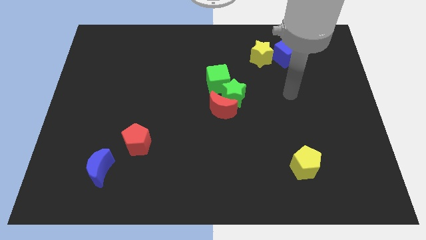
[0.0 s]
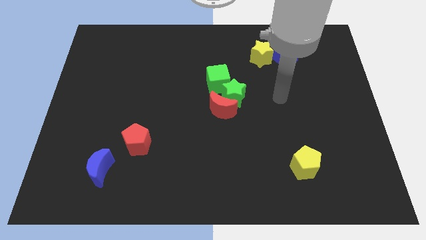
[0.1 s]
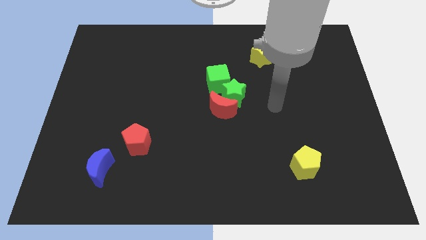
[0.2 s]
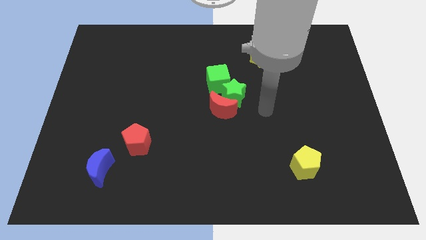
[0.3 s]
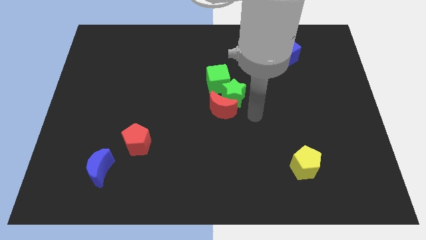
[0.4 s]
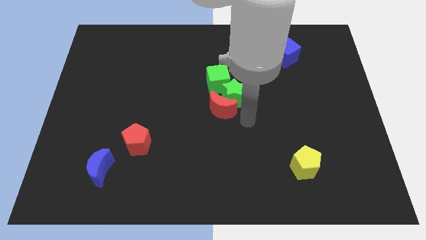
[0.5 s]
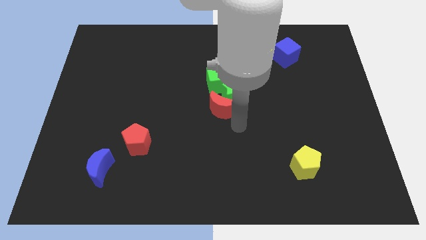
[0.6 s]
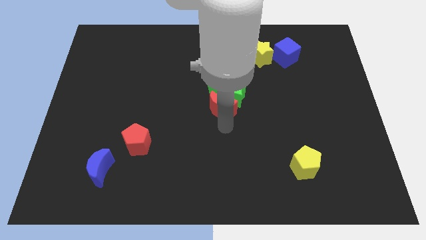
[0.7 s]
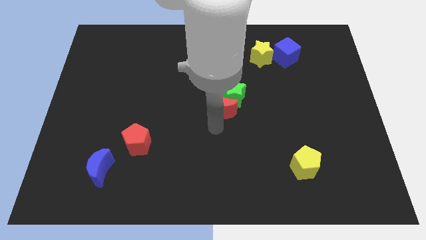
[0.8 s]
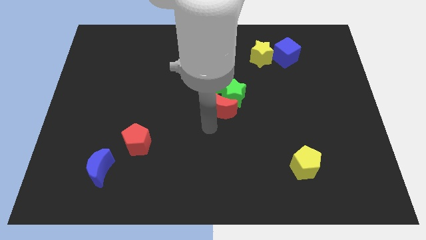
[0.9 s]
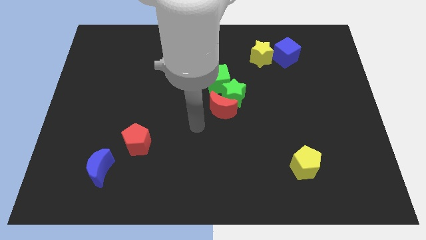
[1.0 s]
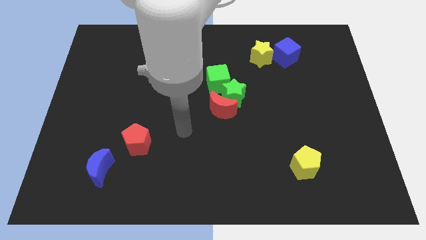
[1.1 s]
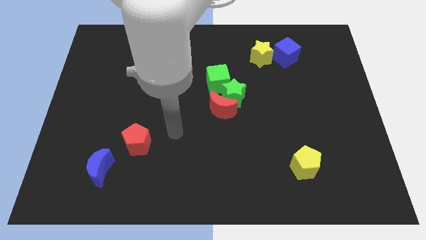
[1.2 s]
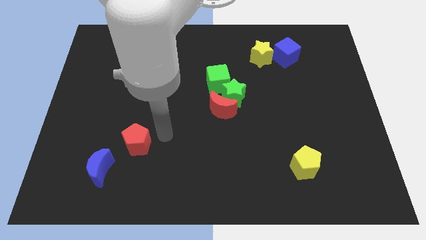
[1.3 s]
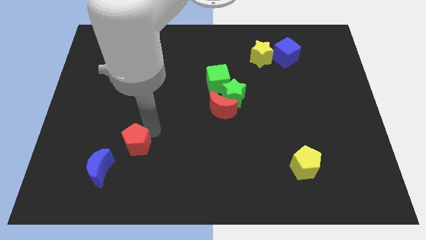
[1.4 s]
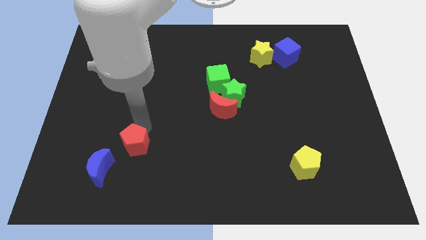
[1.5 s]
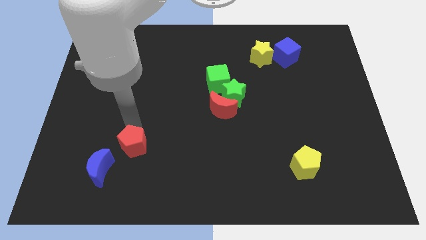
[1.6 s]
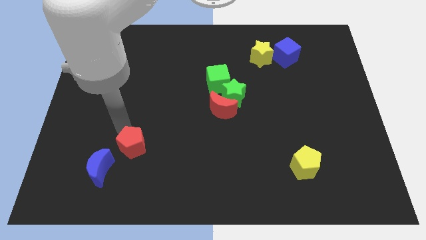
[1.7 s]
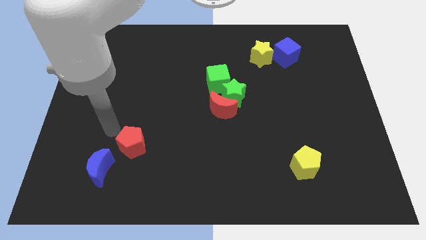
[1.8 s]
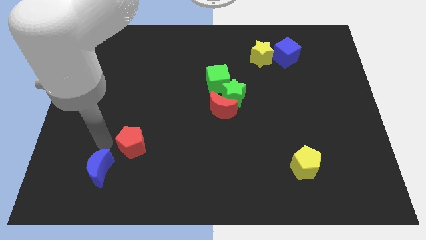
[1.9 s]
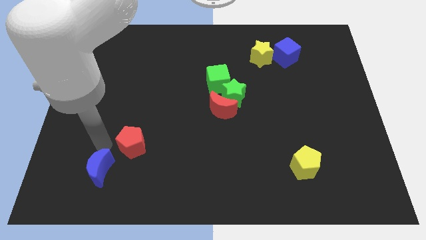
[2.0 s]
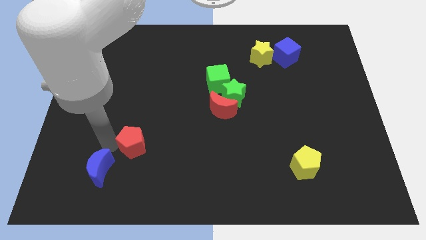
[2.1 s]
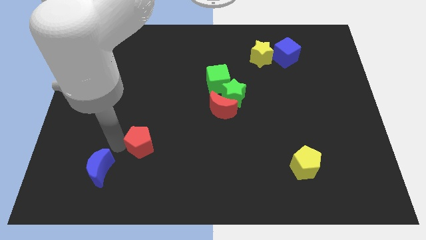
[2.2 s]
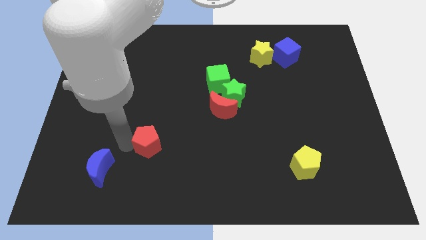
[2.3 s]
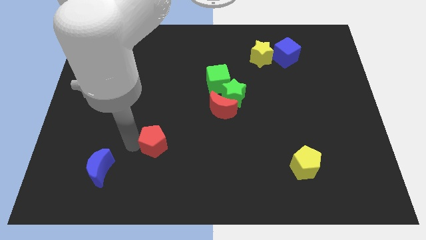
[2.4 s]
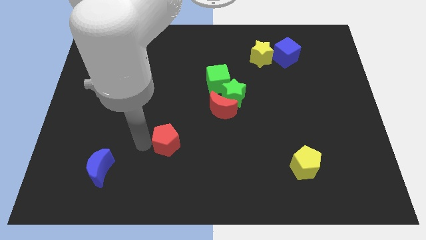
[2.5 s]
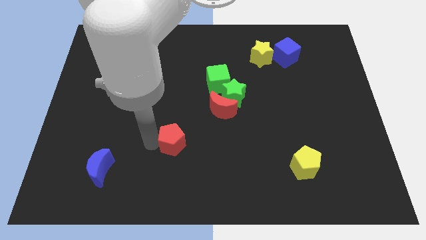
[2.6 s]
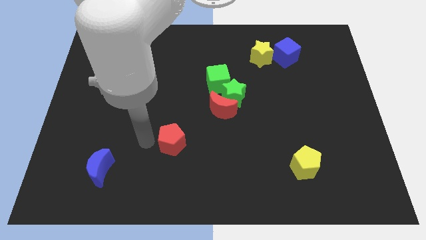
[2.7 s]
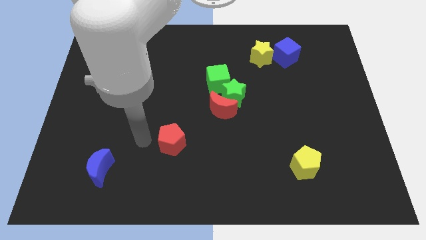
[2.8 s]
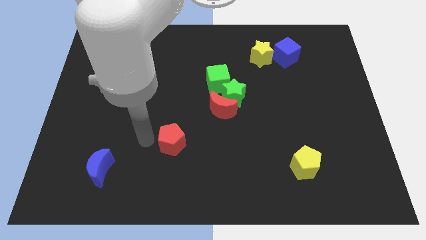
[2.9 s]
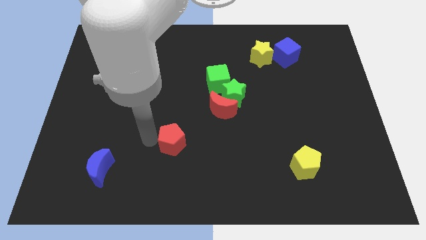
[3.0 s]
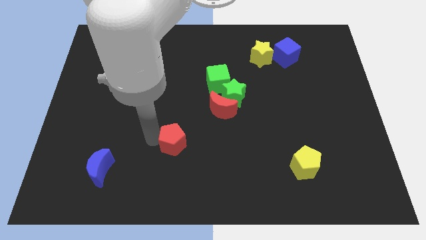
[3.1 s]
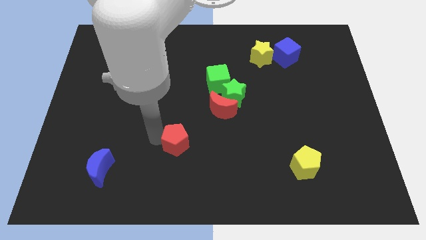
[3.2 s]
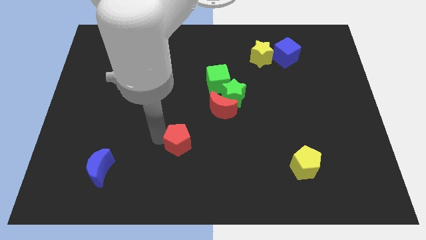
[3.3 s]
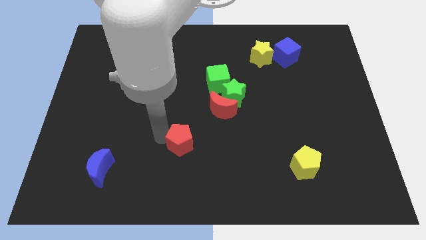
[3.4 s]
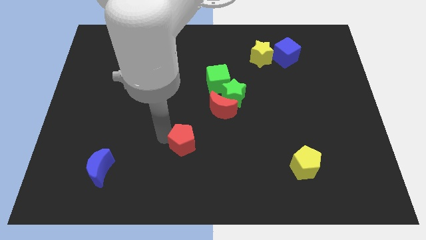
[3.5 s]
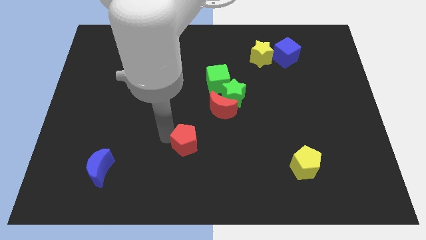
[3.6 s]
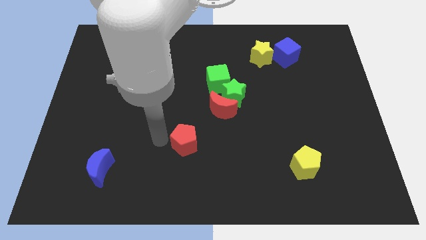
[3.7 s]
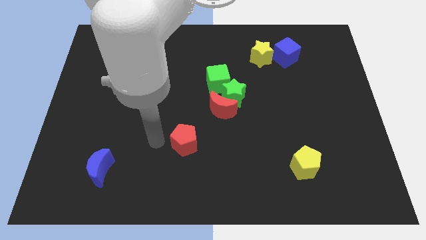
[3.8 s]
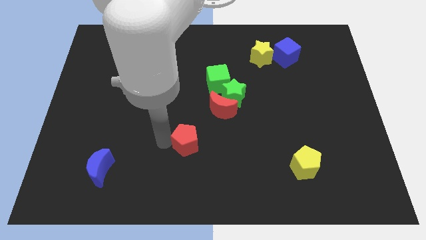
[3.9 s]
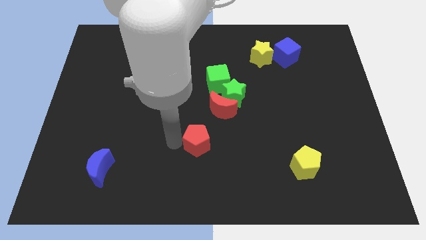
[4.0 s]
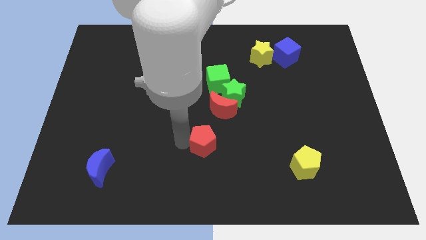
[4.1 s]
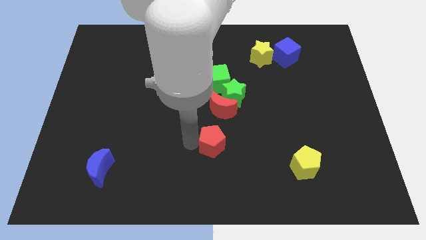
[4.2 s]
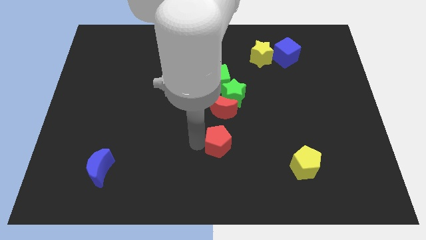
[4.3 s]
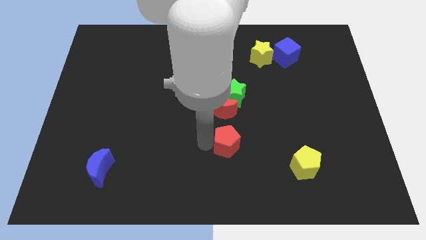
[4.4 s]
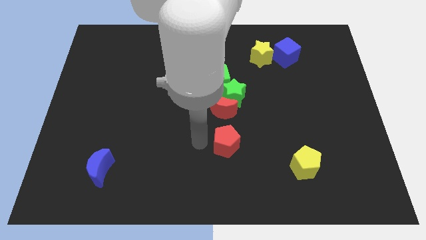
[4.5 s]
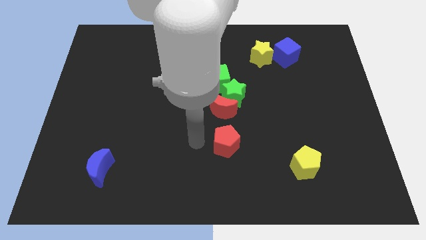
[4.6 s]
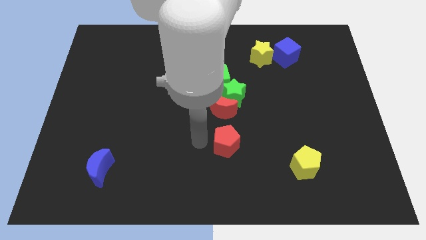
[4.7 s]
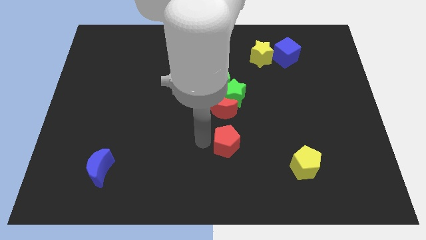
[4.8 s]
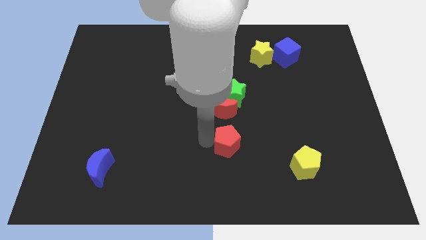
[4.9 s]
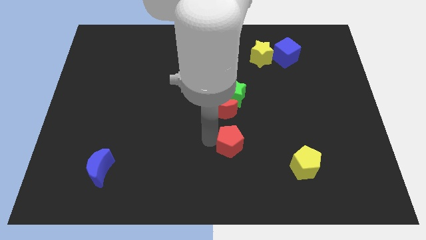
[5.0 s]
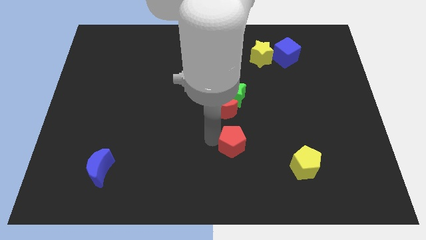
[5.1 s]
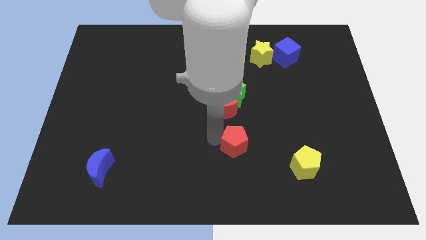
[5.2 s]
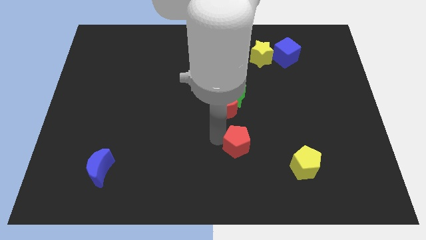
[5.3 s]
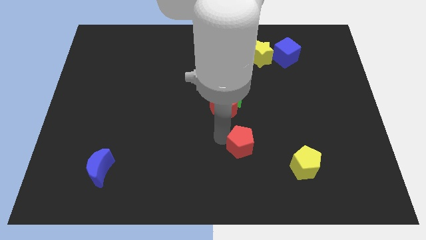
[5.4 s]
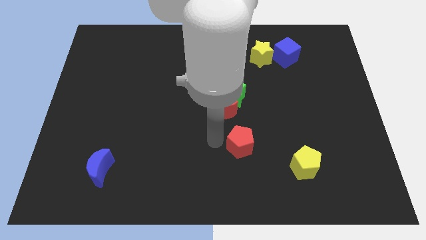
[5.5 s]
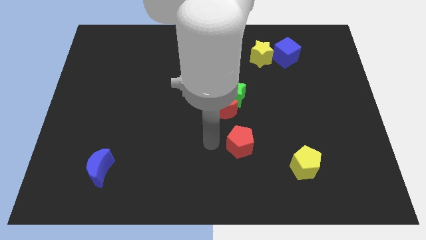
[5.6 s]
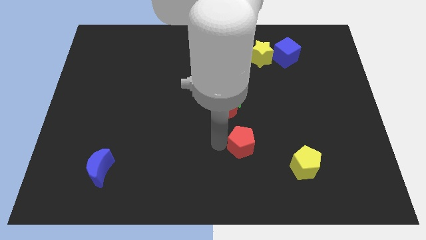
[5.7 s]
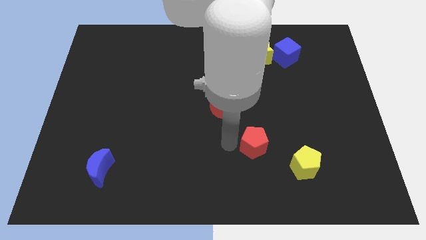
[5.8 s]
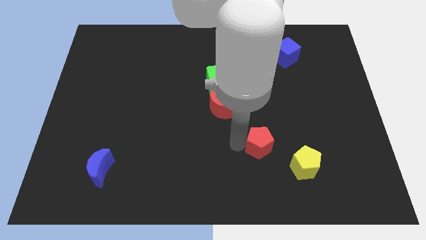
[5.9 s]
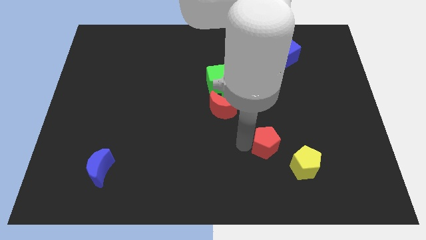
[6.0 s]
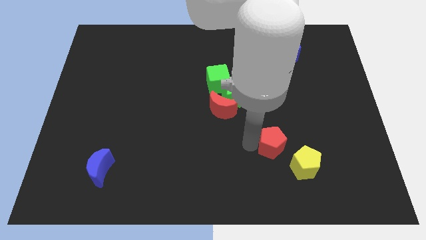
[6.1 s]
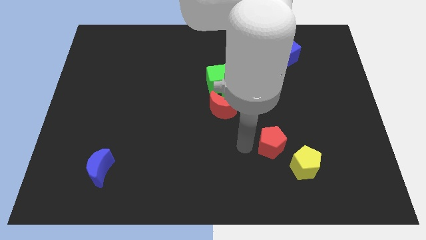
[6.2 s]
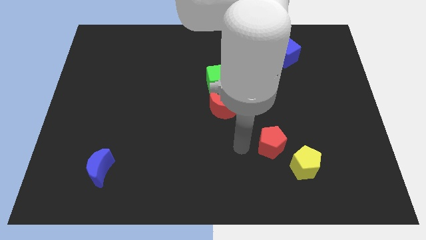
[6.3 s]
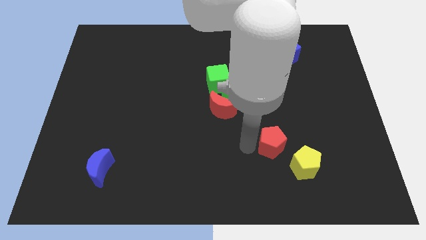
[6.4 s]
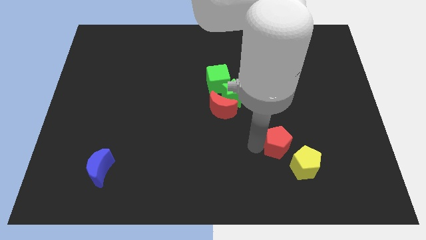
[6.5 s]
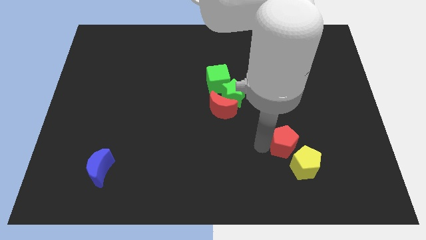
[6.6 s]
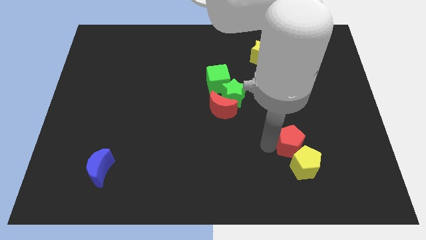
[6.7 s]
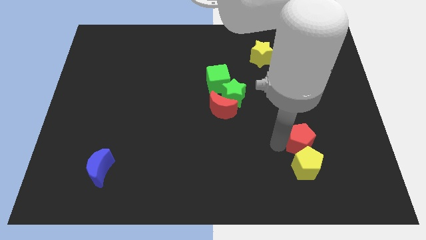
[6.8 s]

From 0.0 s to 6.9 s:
push the red pentagon to the top right side of the yellow pentagon
